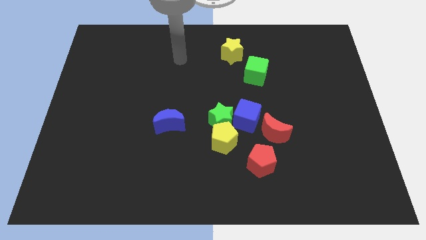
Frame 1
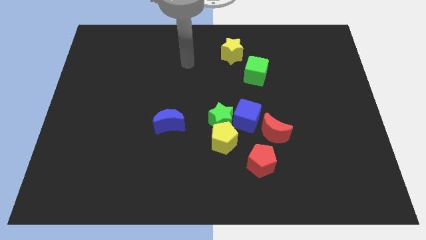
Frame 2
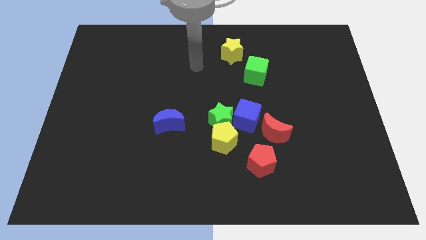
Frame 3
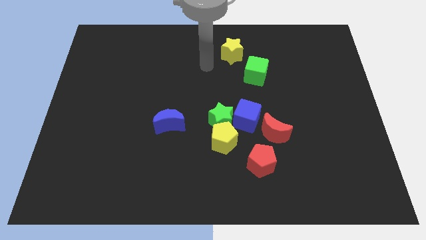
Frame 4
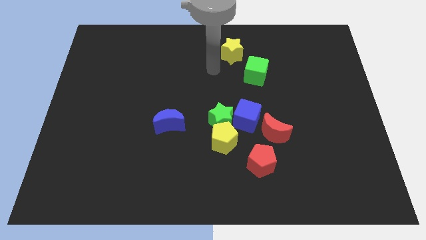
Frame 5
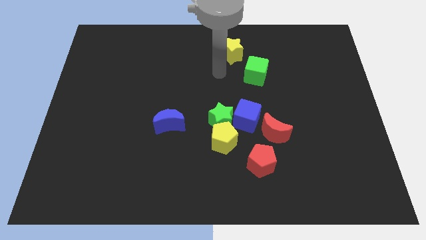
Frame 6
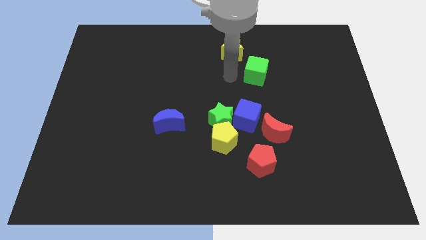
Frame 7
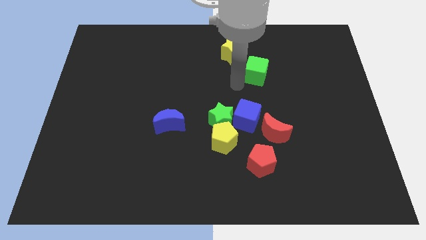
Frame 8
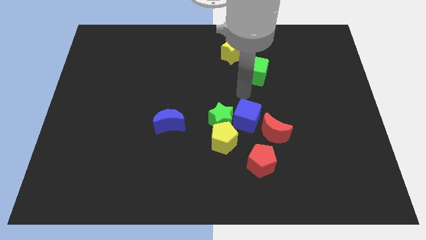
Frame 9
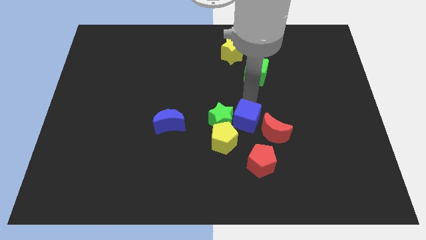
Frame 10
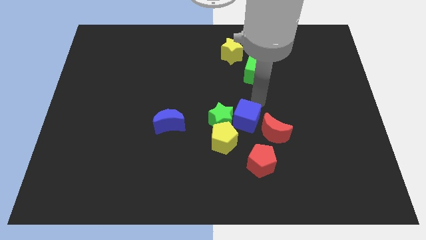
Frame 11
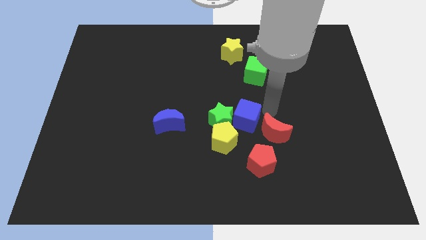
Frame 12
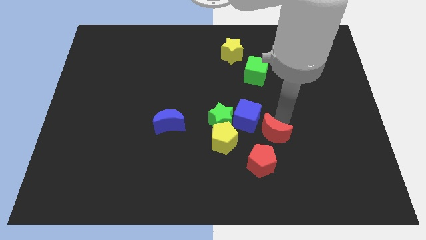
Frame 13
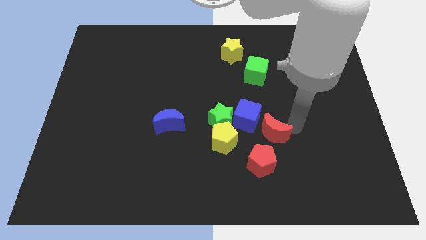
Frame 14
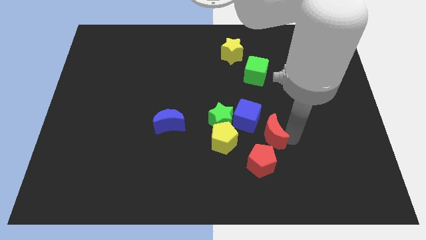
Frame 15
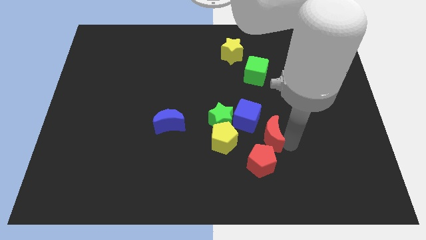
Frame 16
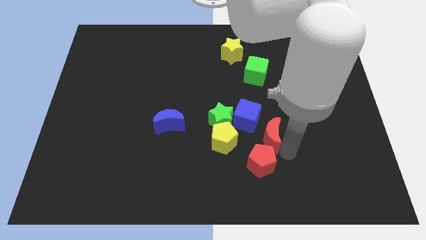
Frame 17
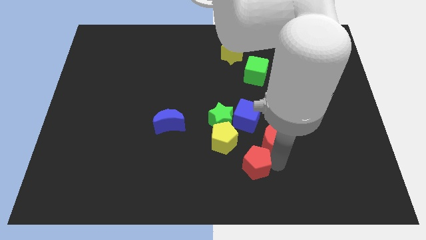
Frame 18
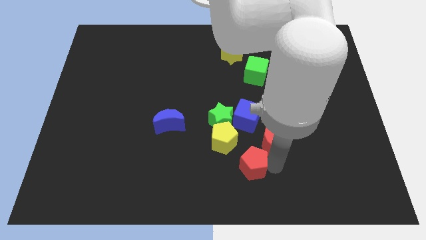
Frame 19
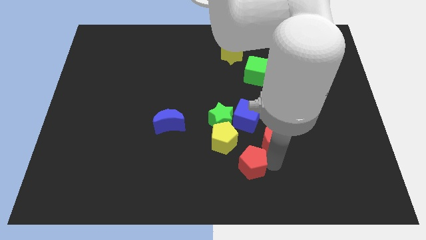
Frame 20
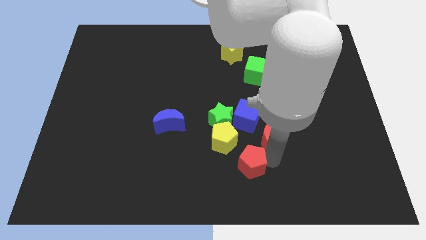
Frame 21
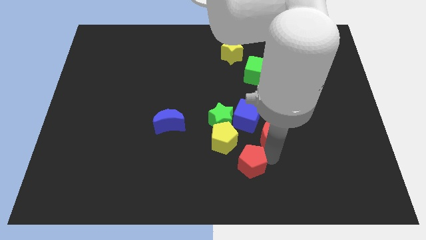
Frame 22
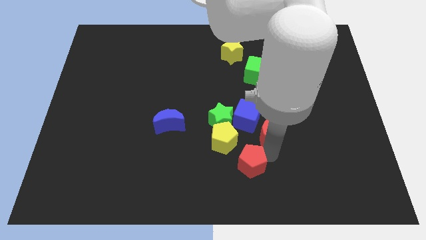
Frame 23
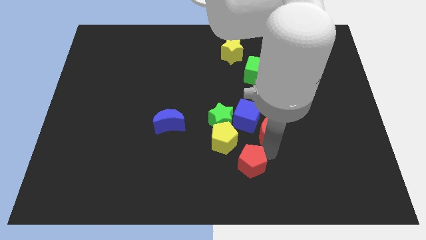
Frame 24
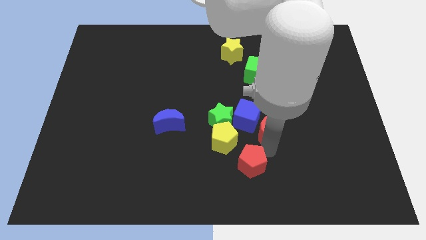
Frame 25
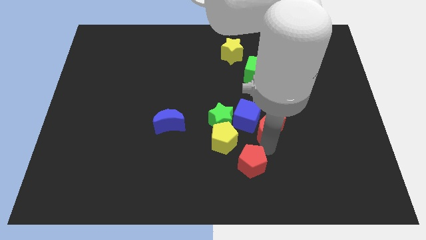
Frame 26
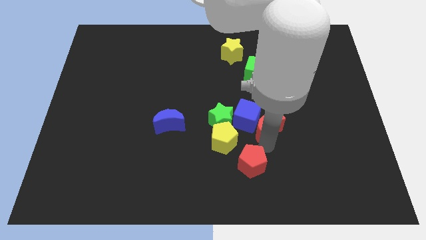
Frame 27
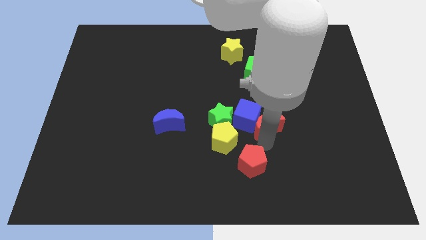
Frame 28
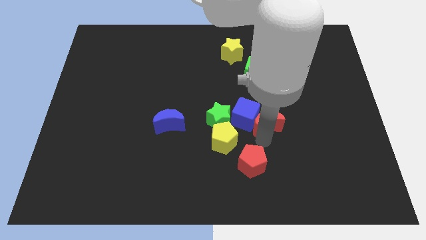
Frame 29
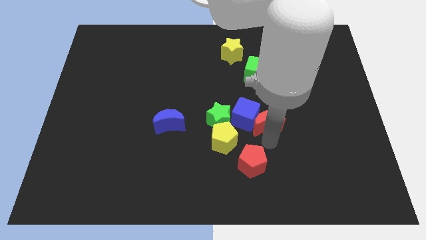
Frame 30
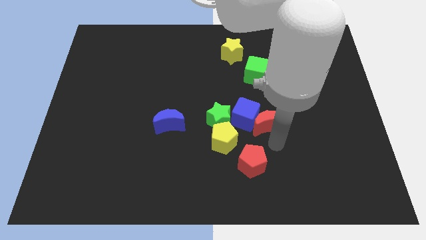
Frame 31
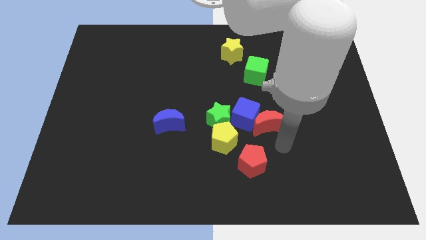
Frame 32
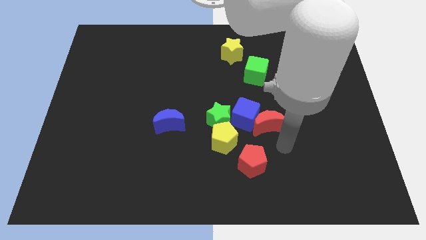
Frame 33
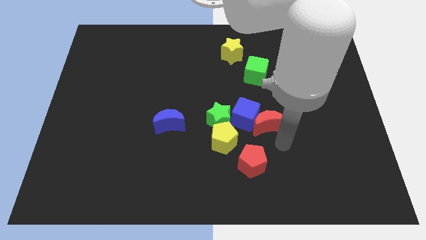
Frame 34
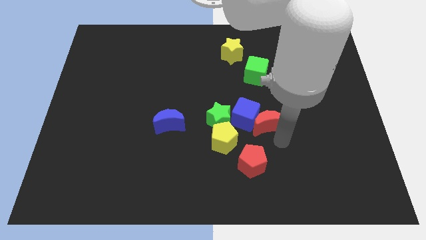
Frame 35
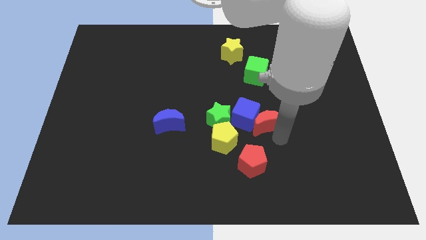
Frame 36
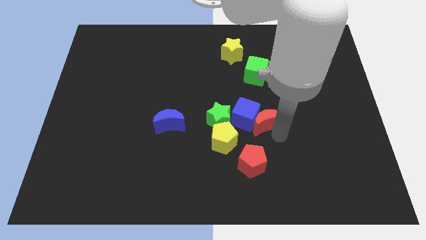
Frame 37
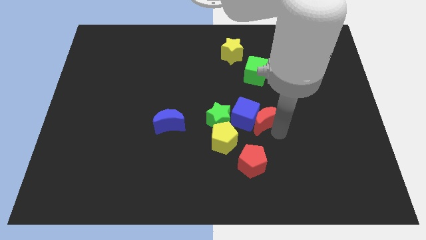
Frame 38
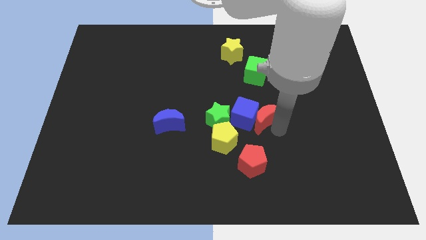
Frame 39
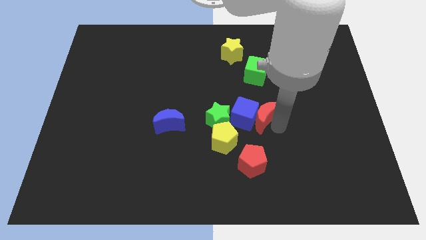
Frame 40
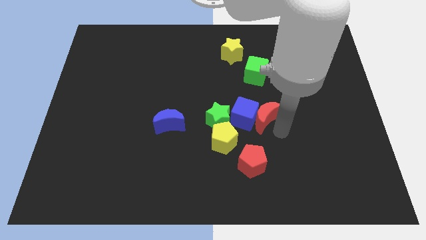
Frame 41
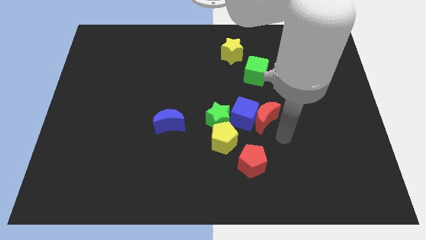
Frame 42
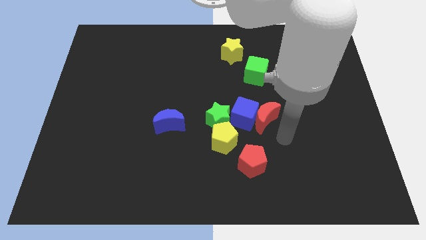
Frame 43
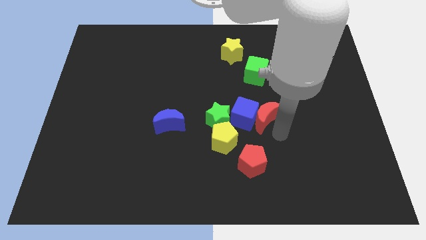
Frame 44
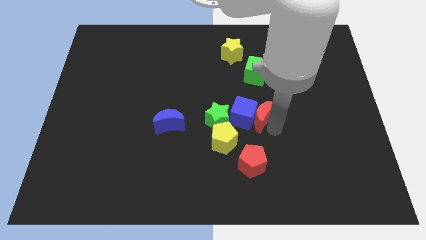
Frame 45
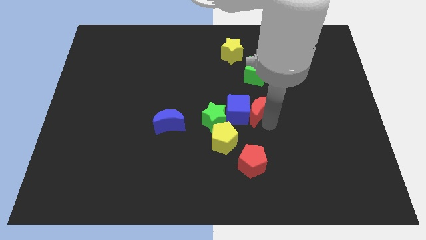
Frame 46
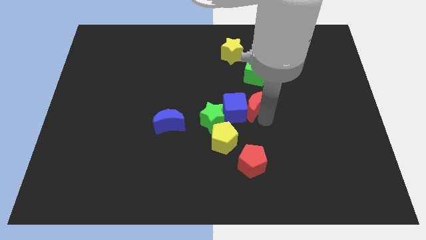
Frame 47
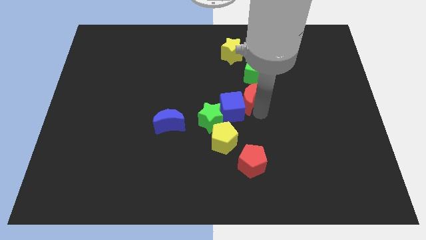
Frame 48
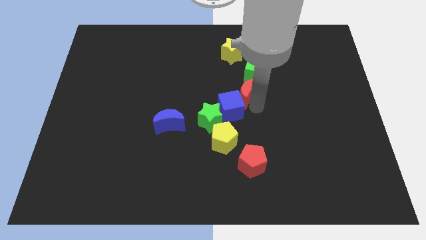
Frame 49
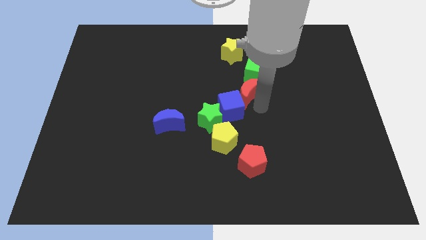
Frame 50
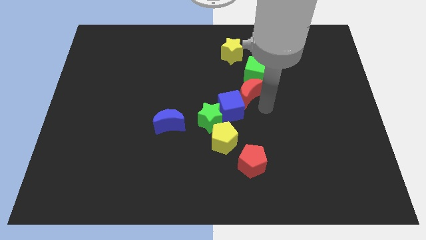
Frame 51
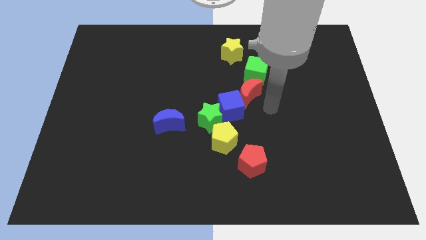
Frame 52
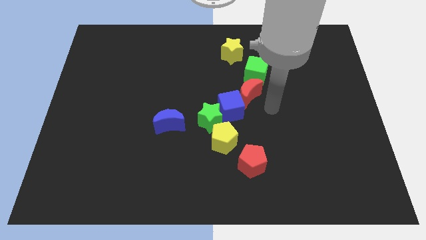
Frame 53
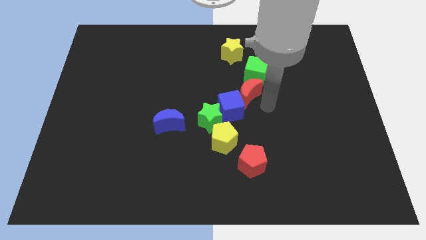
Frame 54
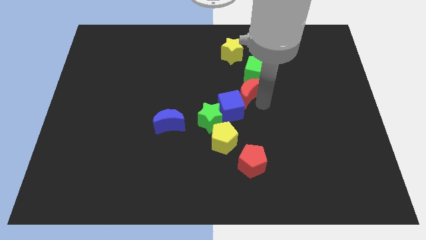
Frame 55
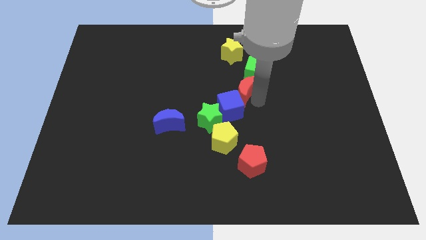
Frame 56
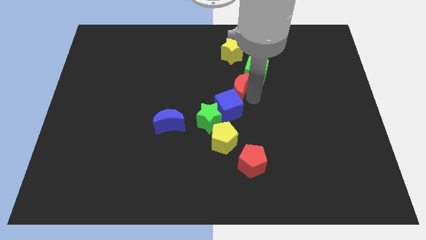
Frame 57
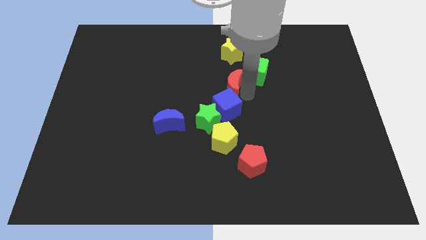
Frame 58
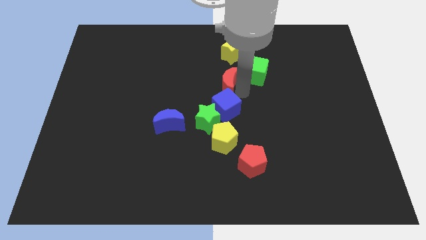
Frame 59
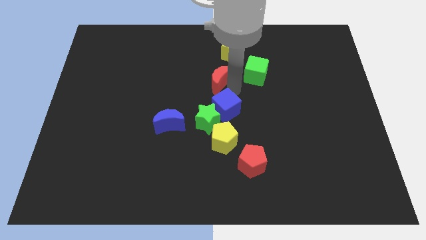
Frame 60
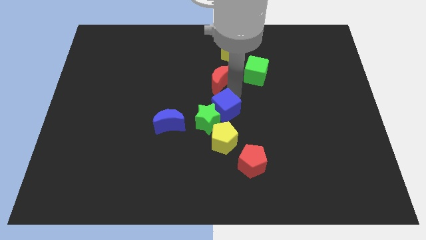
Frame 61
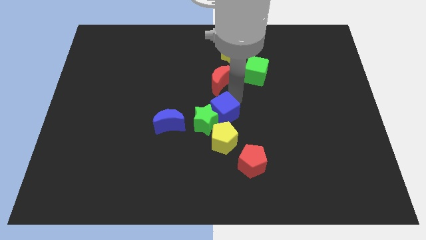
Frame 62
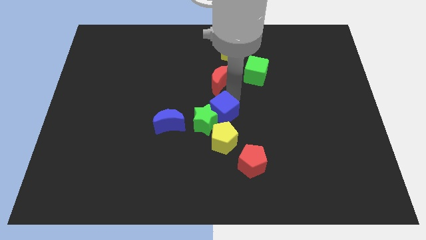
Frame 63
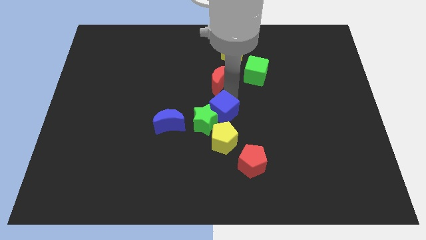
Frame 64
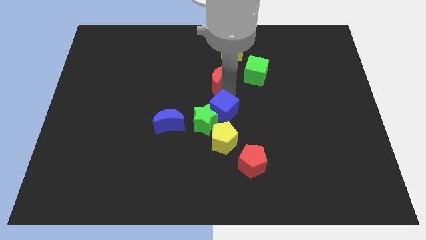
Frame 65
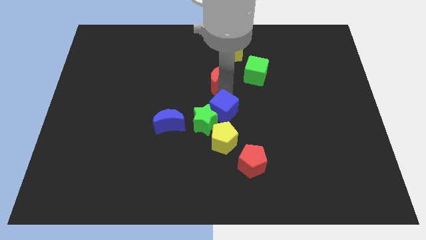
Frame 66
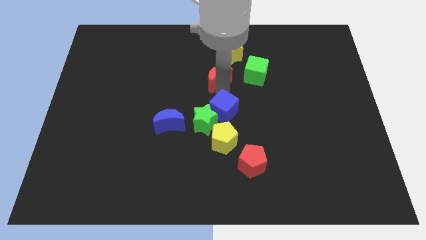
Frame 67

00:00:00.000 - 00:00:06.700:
slide the red moon upwards and then to the left

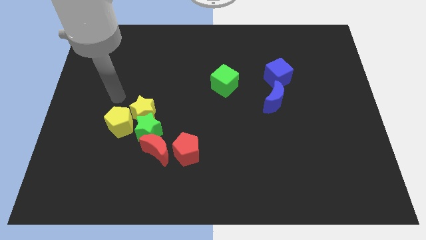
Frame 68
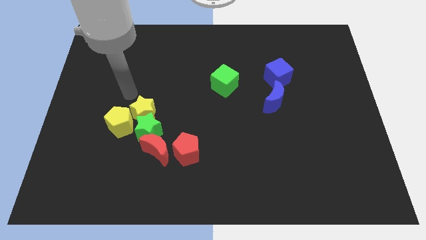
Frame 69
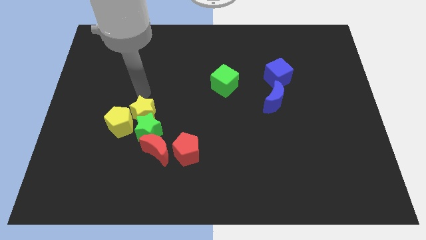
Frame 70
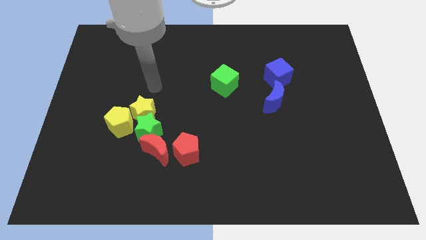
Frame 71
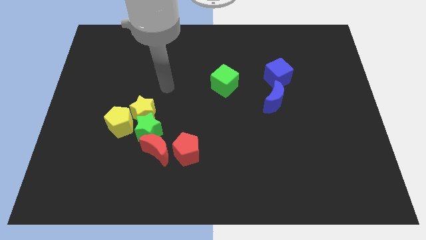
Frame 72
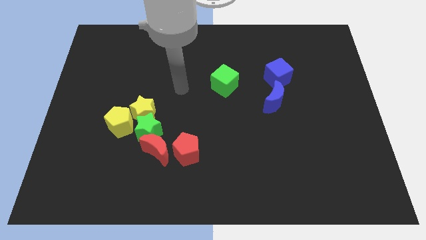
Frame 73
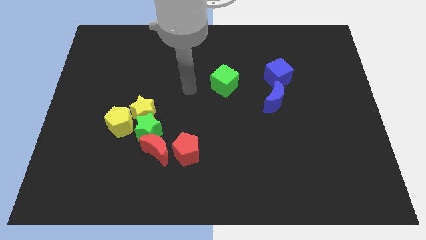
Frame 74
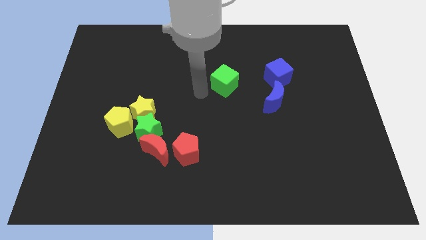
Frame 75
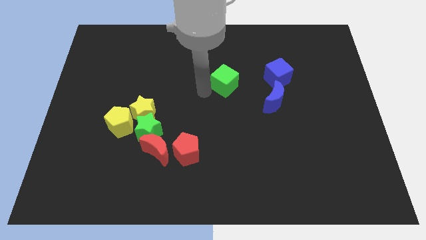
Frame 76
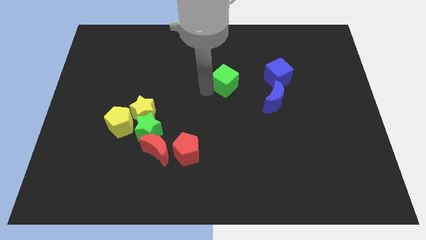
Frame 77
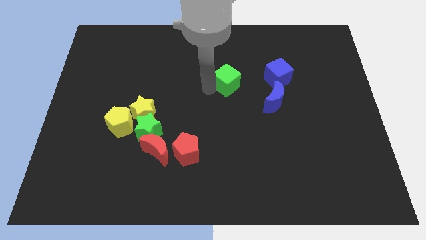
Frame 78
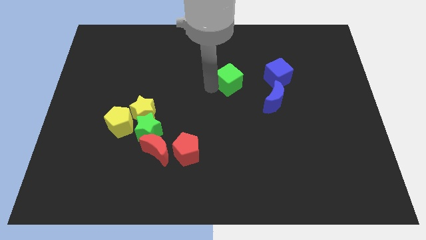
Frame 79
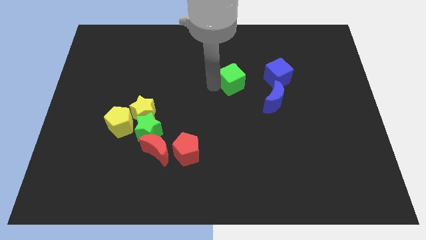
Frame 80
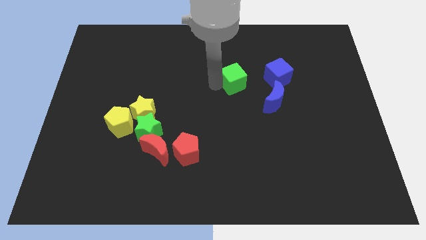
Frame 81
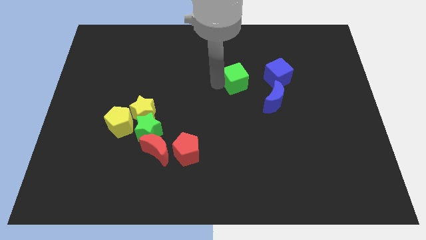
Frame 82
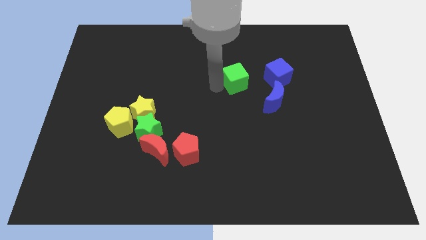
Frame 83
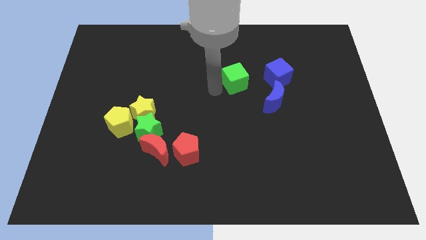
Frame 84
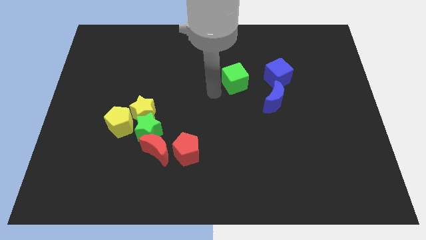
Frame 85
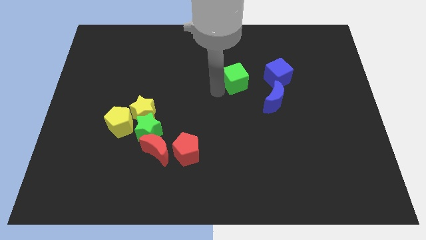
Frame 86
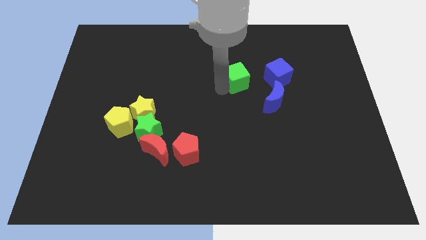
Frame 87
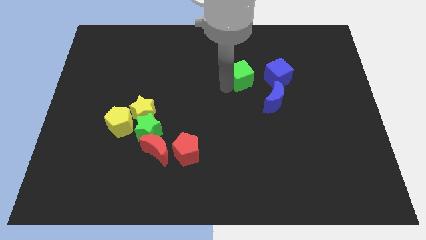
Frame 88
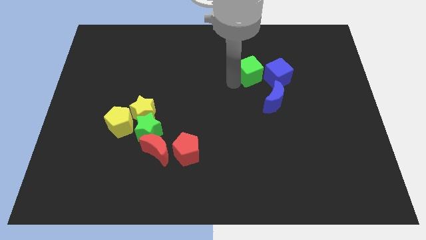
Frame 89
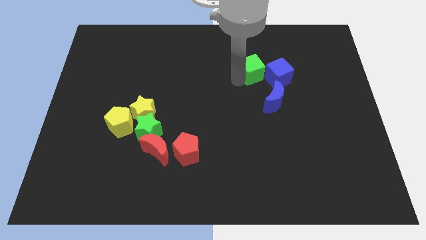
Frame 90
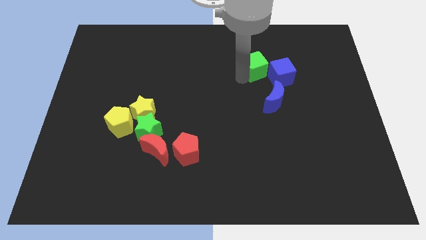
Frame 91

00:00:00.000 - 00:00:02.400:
move the green cube right a bit
